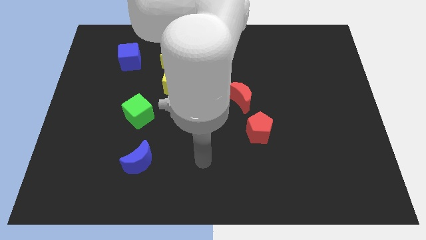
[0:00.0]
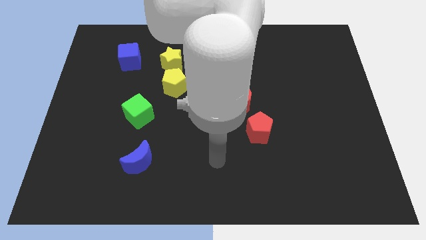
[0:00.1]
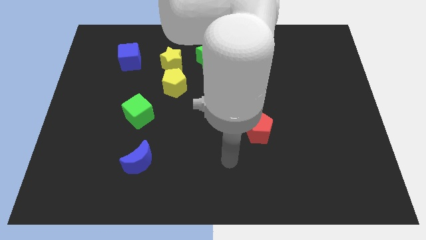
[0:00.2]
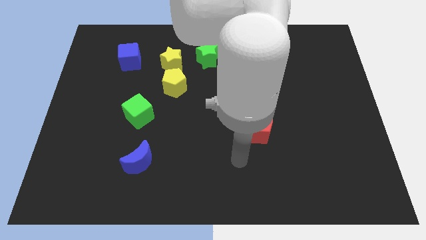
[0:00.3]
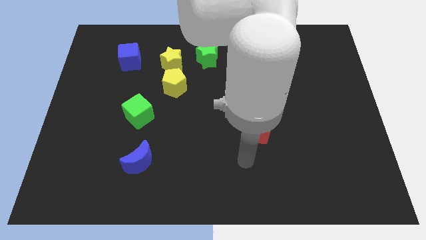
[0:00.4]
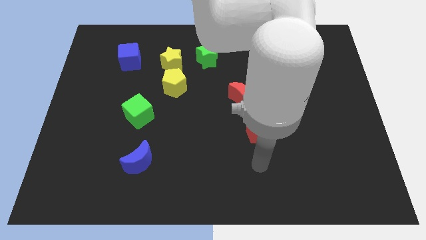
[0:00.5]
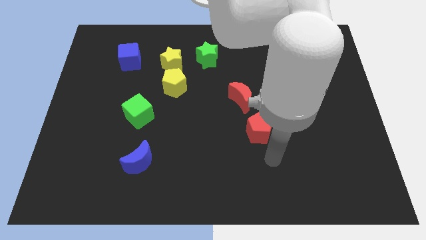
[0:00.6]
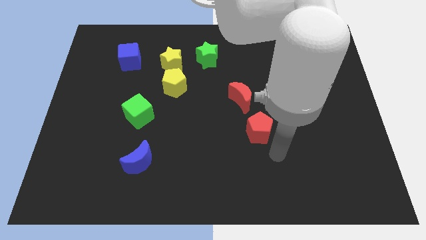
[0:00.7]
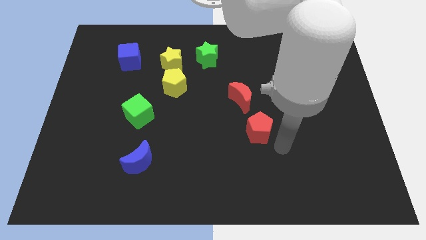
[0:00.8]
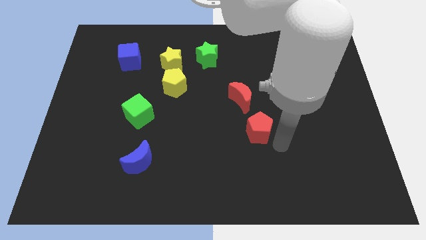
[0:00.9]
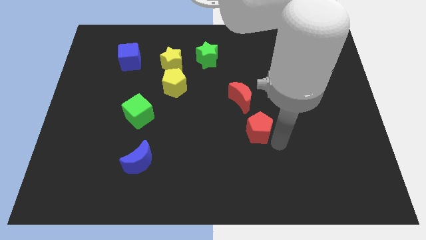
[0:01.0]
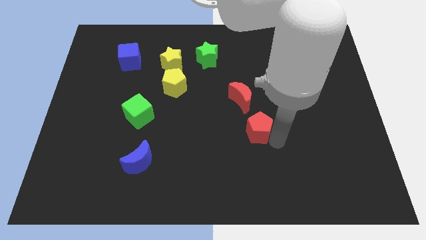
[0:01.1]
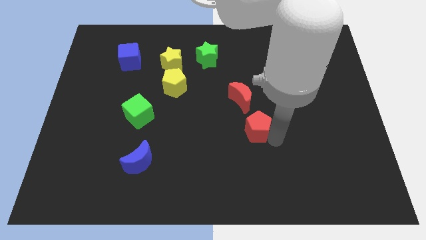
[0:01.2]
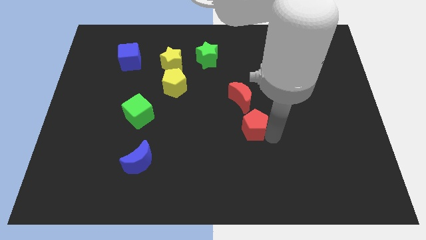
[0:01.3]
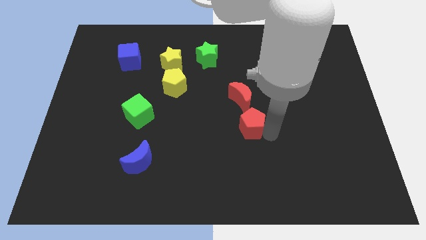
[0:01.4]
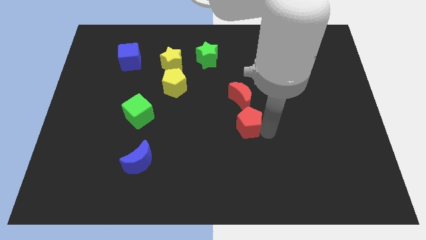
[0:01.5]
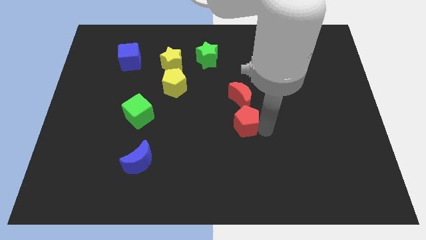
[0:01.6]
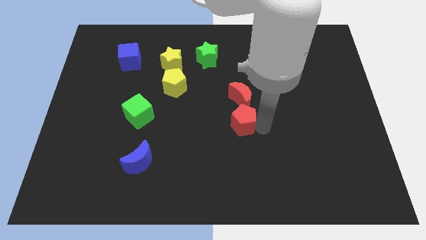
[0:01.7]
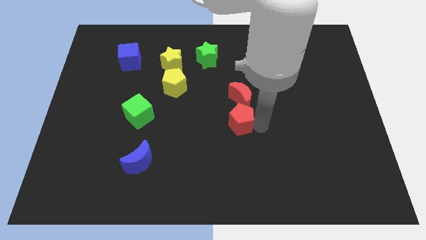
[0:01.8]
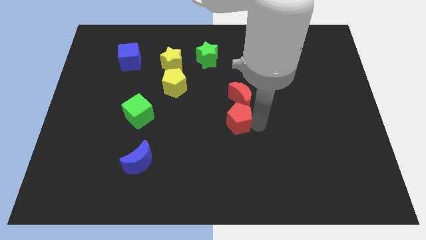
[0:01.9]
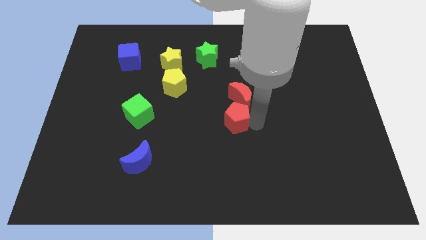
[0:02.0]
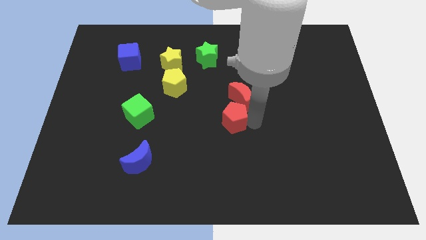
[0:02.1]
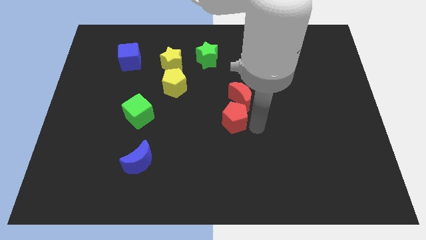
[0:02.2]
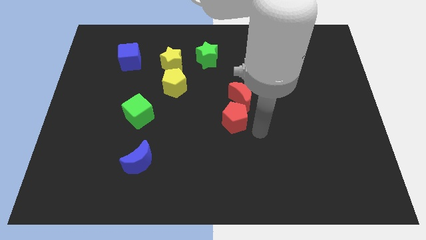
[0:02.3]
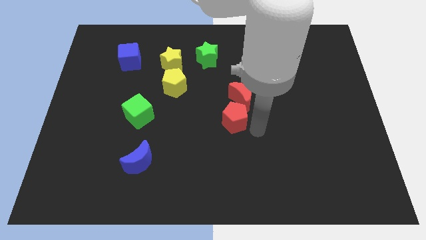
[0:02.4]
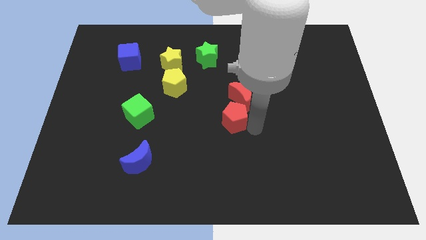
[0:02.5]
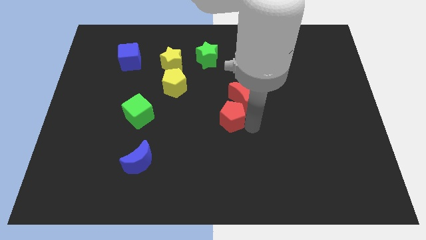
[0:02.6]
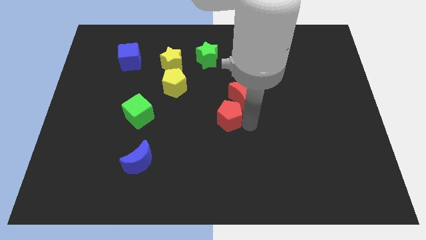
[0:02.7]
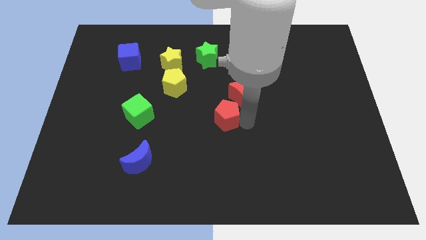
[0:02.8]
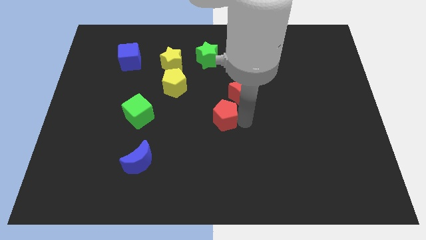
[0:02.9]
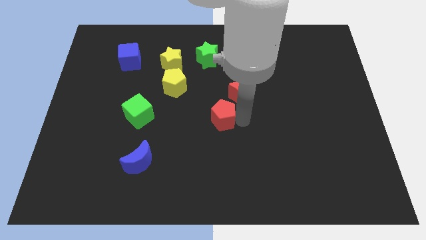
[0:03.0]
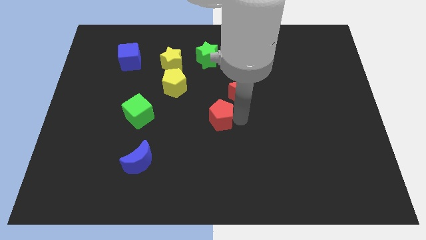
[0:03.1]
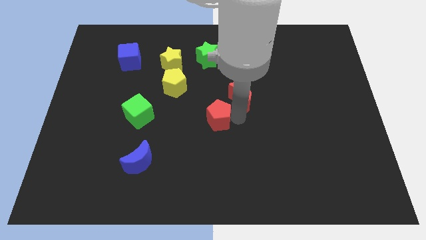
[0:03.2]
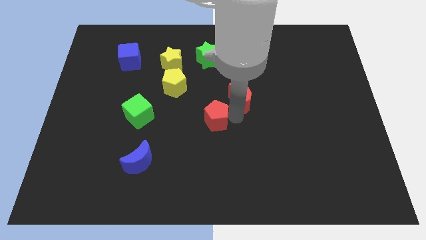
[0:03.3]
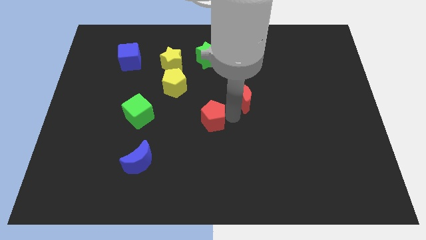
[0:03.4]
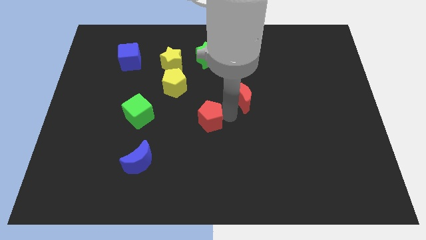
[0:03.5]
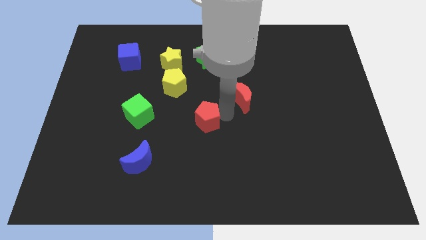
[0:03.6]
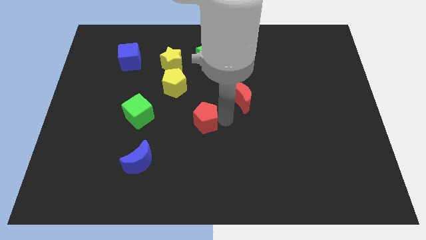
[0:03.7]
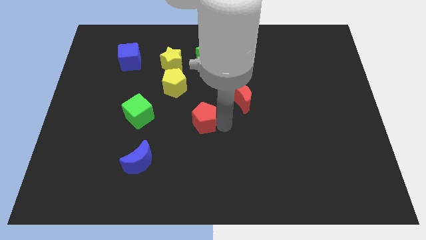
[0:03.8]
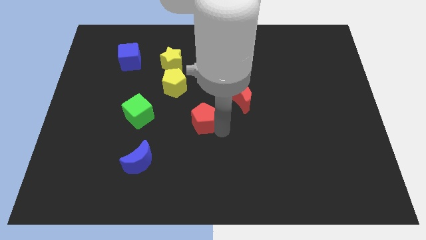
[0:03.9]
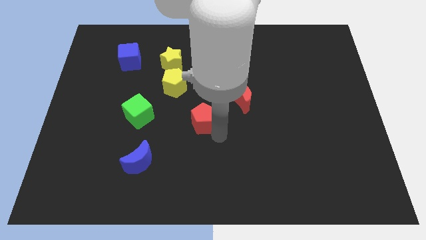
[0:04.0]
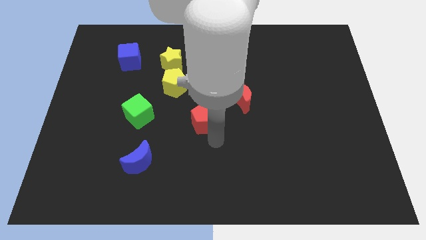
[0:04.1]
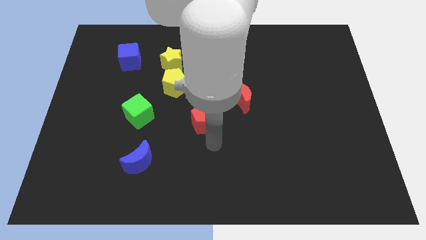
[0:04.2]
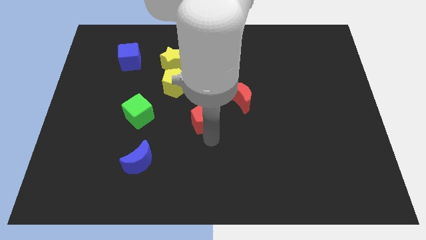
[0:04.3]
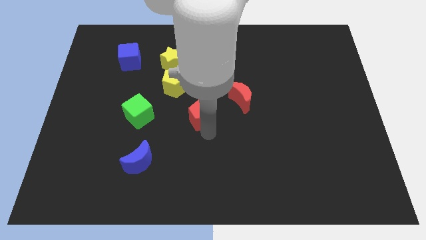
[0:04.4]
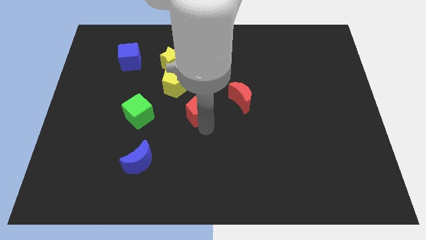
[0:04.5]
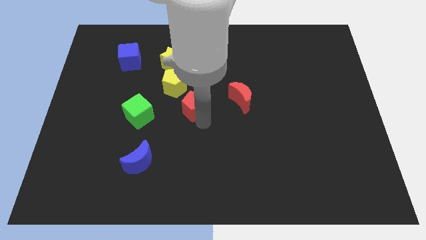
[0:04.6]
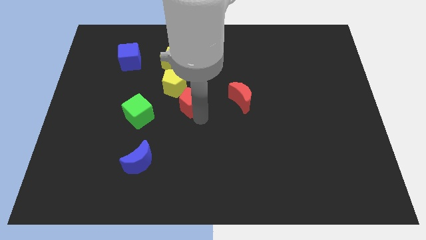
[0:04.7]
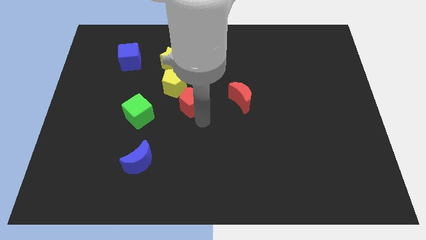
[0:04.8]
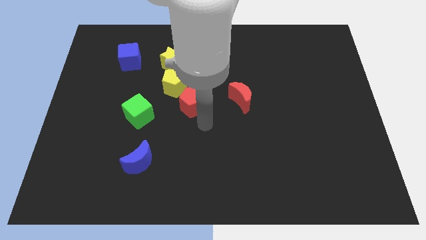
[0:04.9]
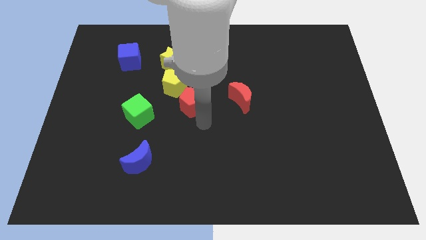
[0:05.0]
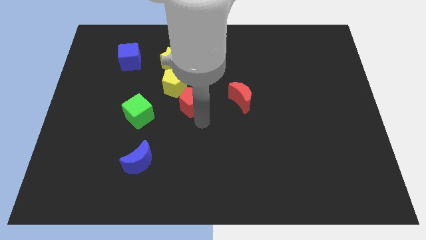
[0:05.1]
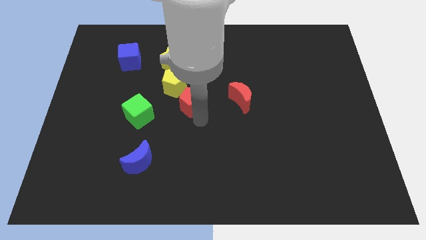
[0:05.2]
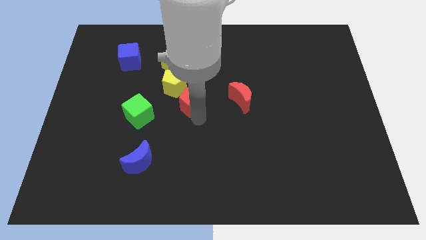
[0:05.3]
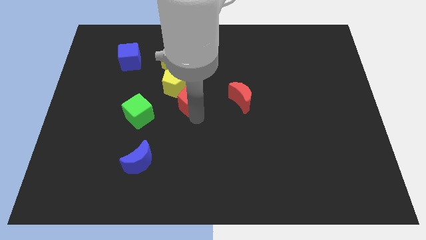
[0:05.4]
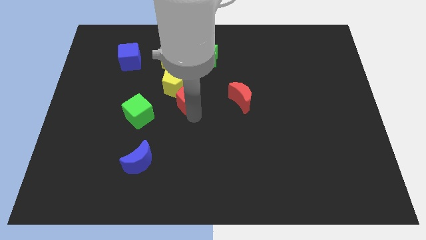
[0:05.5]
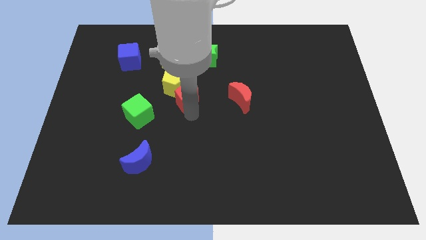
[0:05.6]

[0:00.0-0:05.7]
put the red pentagon close to the yellow pentagon

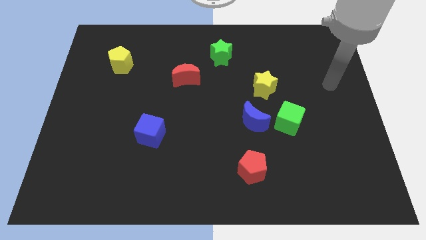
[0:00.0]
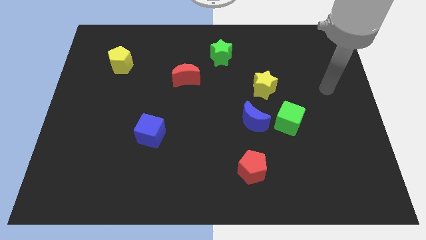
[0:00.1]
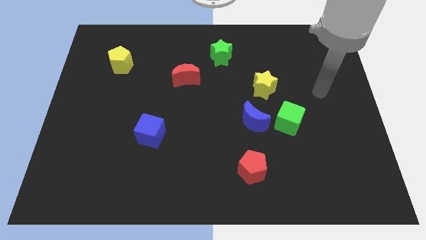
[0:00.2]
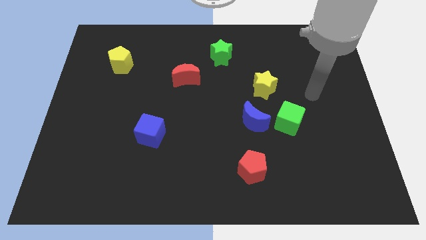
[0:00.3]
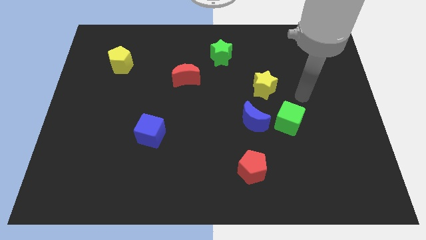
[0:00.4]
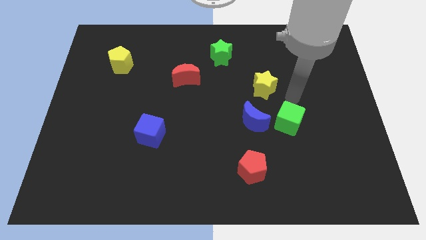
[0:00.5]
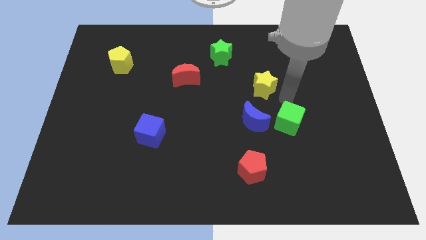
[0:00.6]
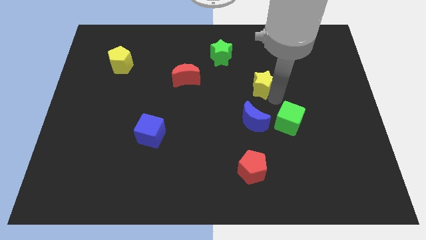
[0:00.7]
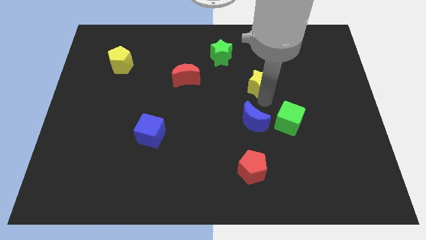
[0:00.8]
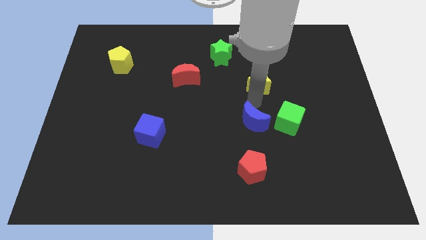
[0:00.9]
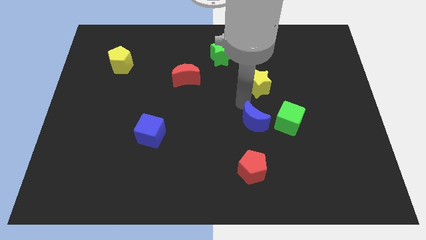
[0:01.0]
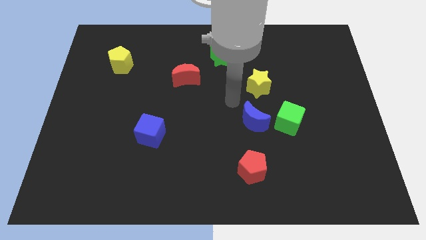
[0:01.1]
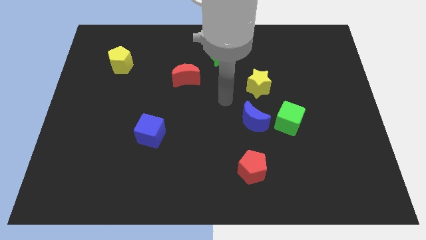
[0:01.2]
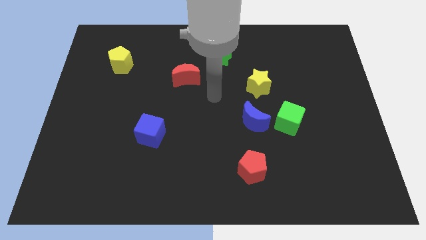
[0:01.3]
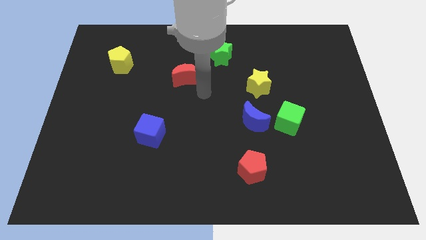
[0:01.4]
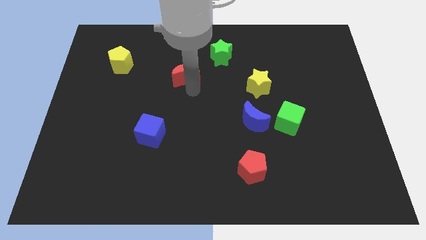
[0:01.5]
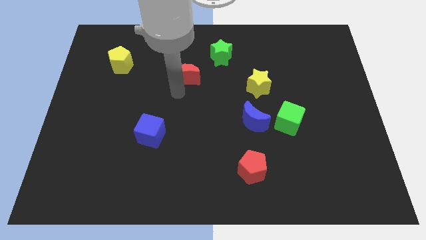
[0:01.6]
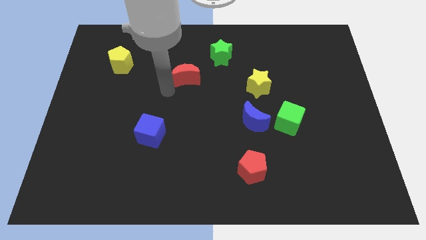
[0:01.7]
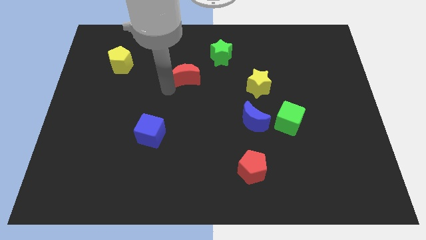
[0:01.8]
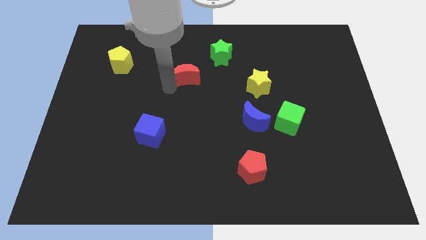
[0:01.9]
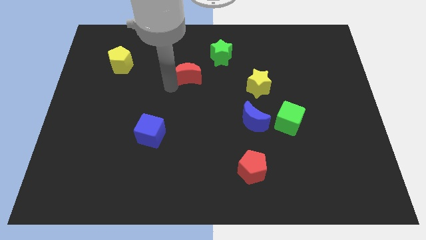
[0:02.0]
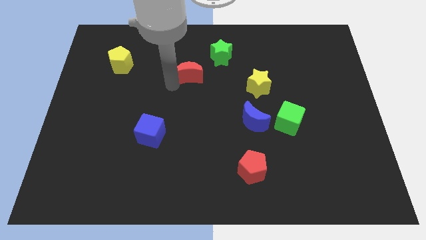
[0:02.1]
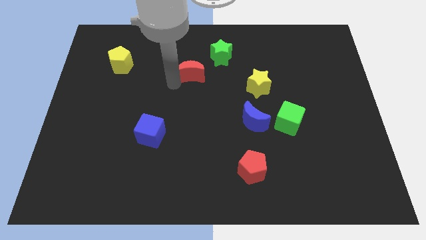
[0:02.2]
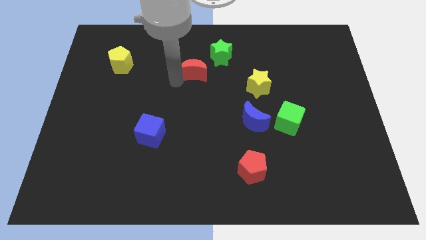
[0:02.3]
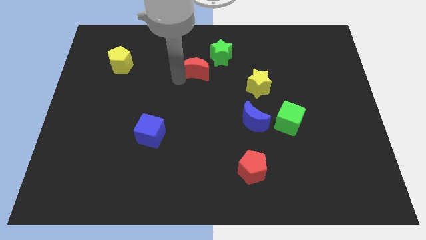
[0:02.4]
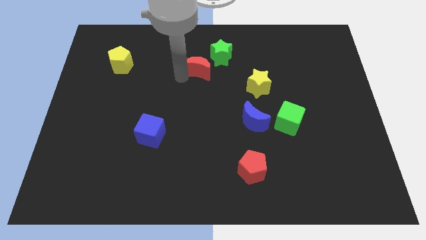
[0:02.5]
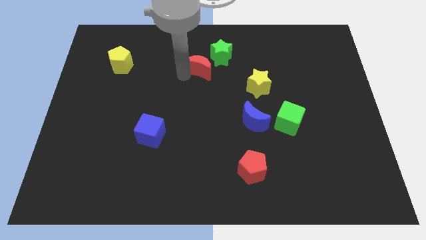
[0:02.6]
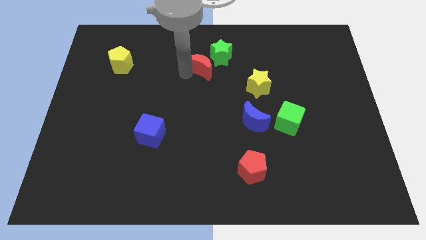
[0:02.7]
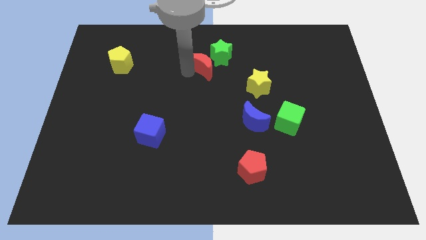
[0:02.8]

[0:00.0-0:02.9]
put the red moon towards the green star
